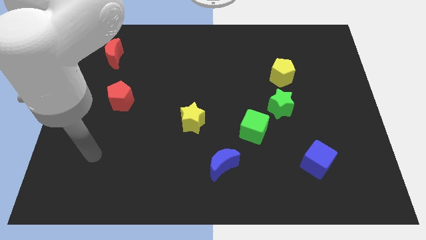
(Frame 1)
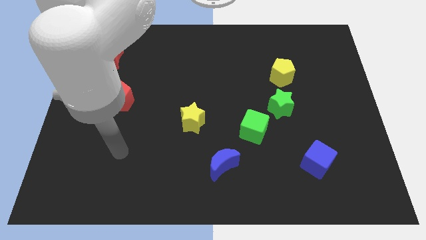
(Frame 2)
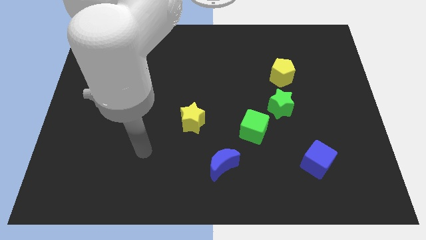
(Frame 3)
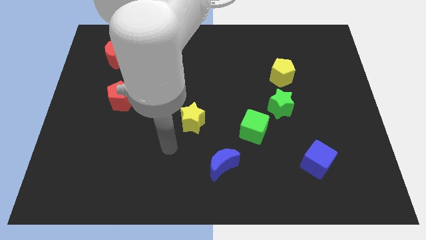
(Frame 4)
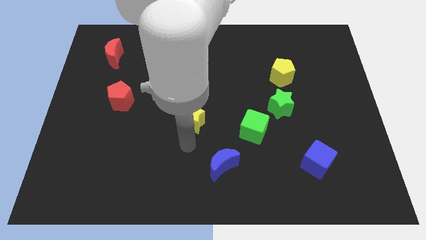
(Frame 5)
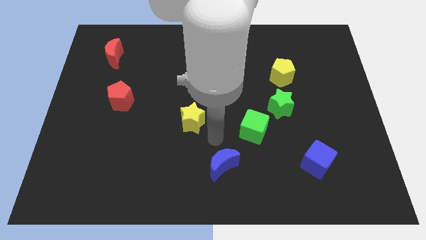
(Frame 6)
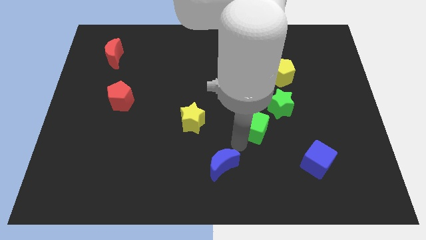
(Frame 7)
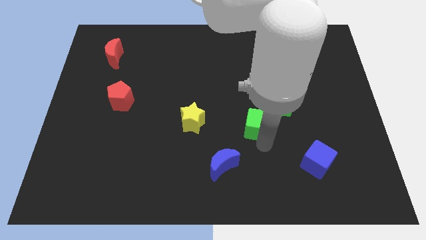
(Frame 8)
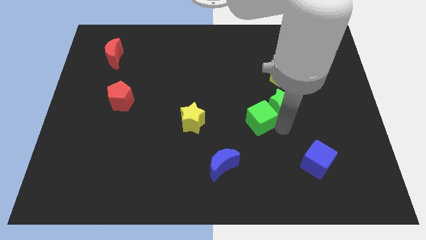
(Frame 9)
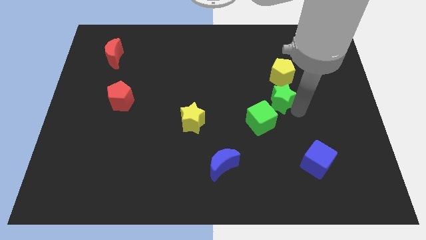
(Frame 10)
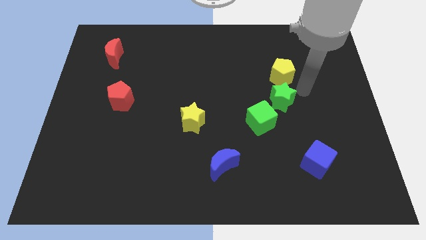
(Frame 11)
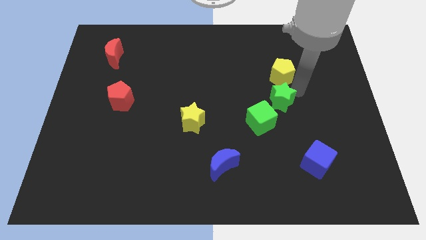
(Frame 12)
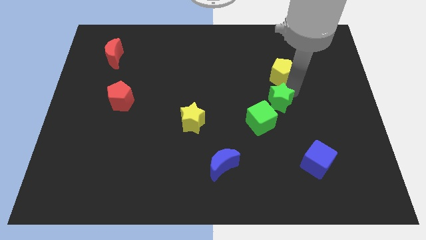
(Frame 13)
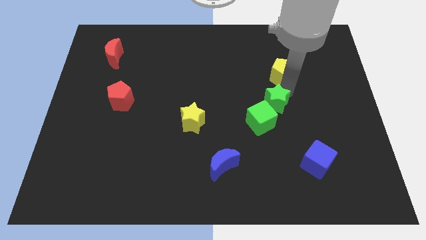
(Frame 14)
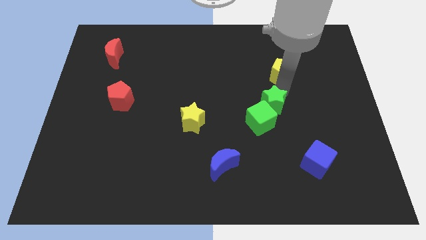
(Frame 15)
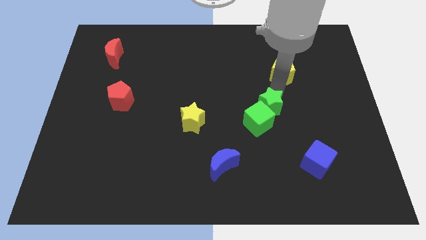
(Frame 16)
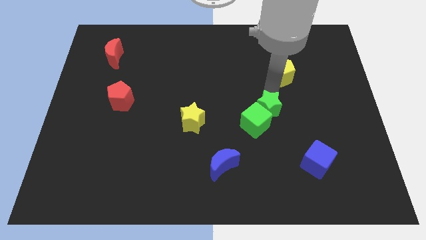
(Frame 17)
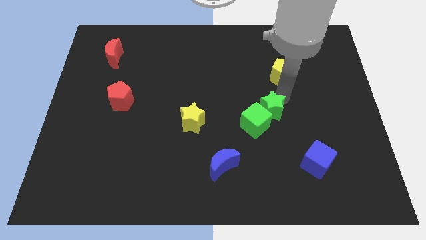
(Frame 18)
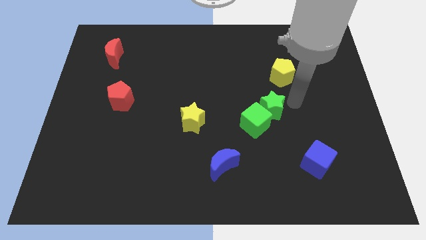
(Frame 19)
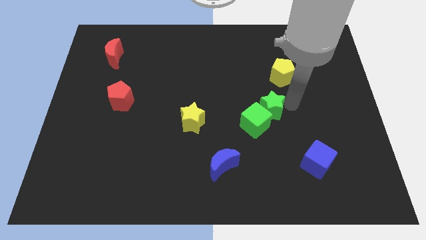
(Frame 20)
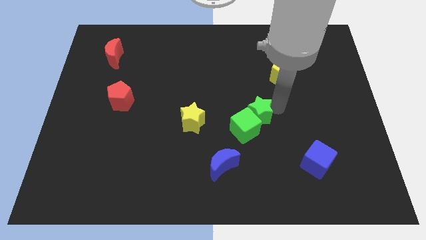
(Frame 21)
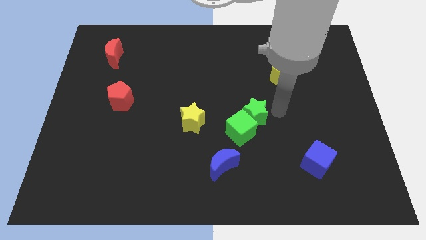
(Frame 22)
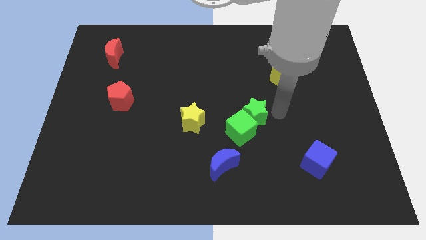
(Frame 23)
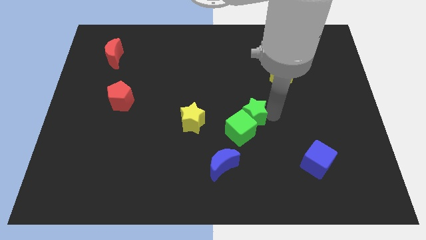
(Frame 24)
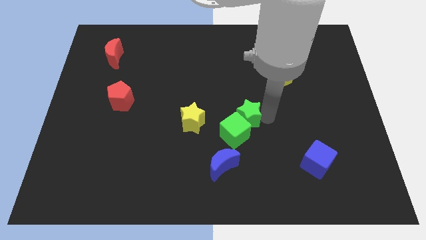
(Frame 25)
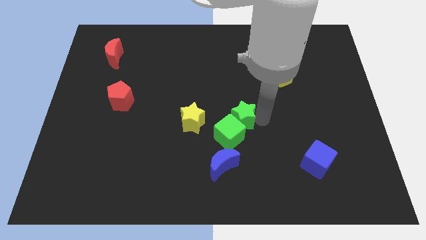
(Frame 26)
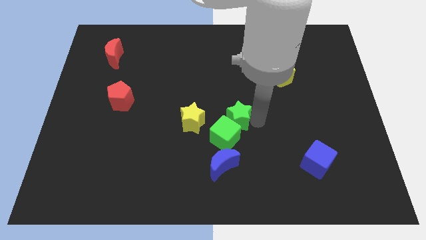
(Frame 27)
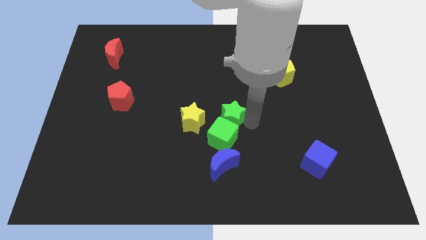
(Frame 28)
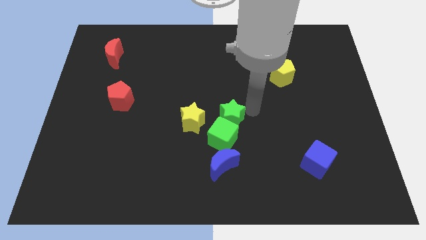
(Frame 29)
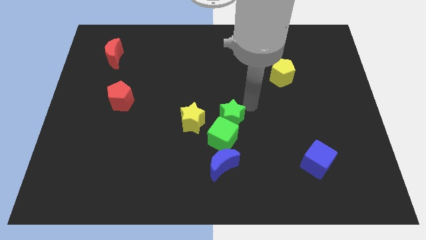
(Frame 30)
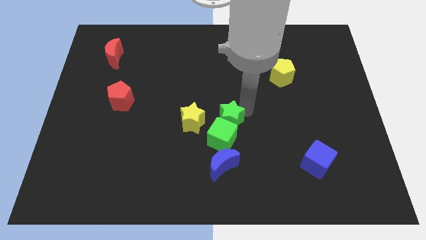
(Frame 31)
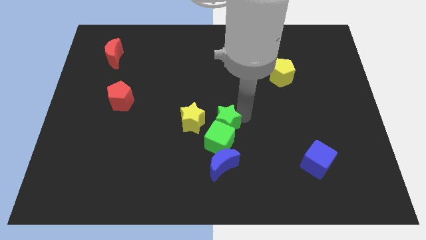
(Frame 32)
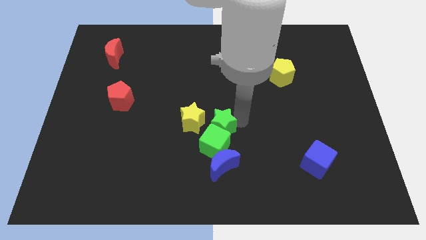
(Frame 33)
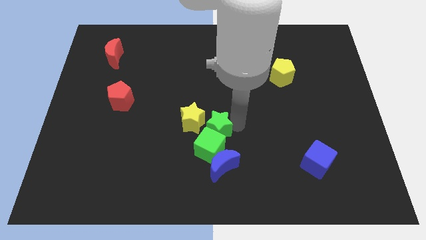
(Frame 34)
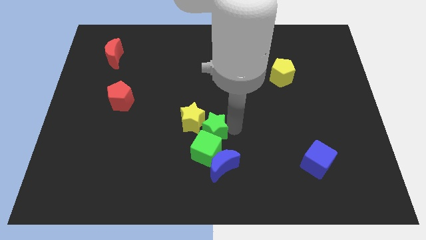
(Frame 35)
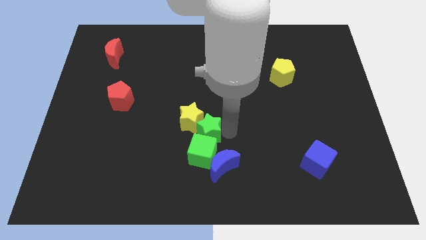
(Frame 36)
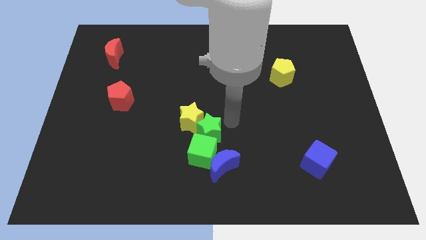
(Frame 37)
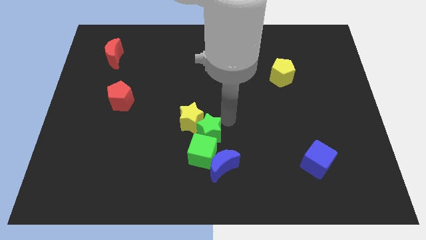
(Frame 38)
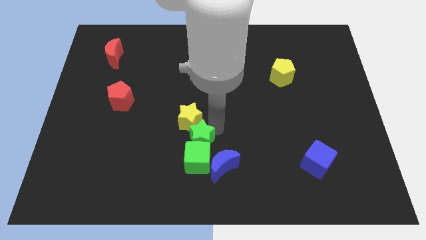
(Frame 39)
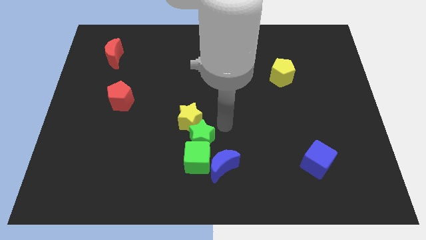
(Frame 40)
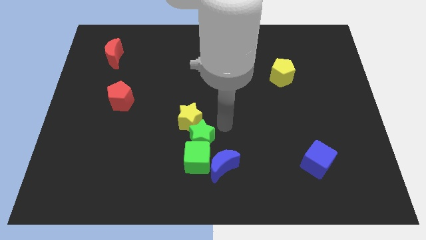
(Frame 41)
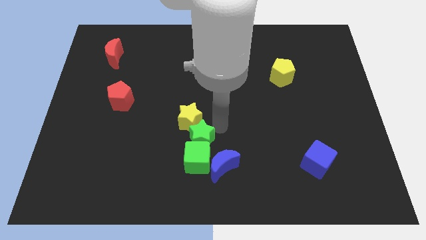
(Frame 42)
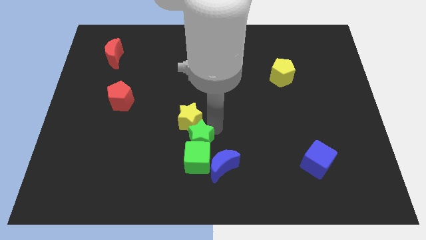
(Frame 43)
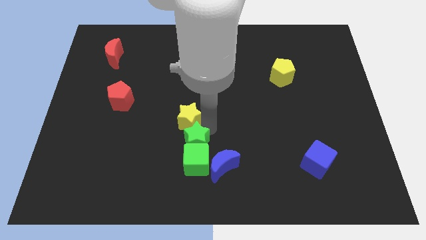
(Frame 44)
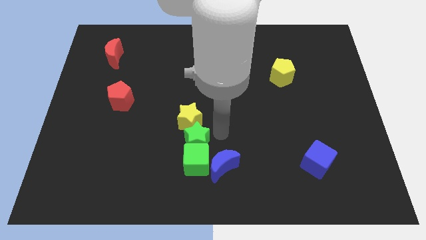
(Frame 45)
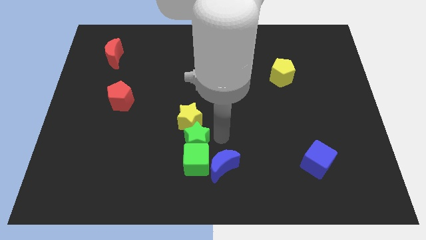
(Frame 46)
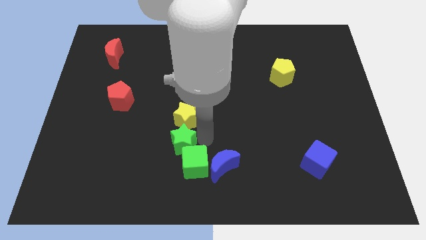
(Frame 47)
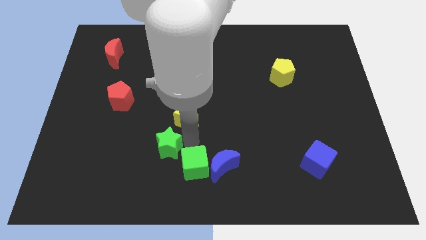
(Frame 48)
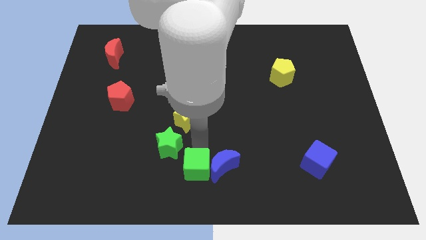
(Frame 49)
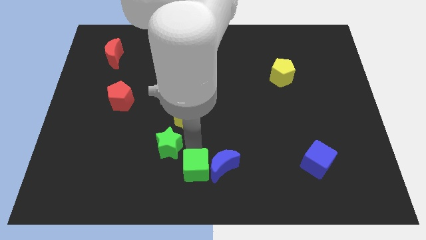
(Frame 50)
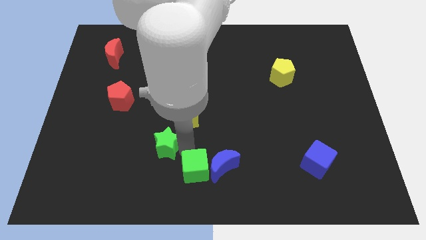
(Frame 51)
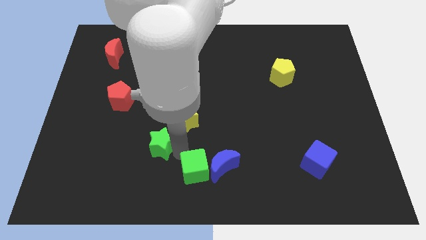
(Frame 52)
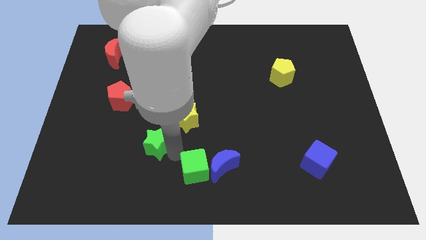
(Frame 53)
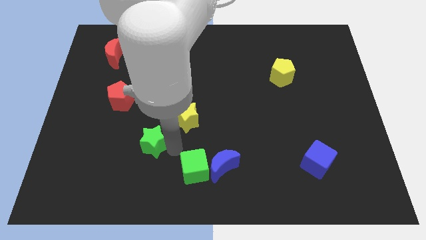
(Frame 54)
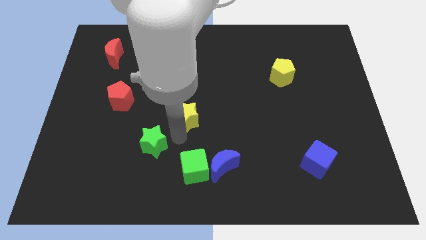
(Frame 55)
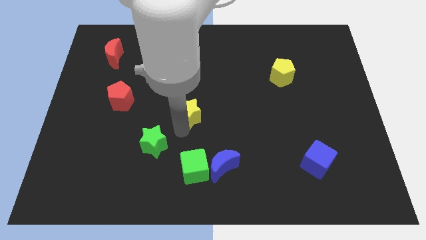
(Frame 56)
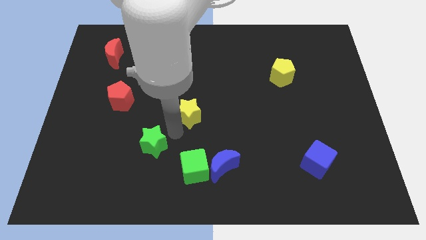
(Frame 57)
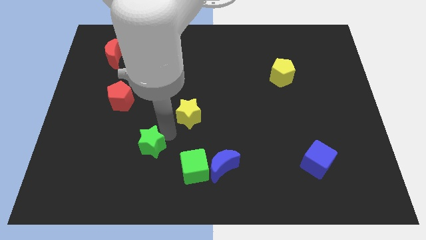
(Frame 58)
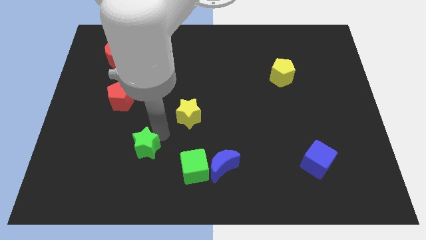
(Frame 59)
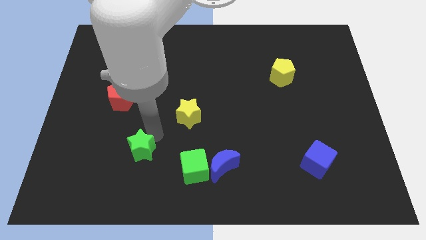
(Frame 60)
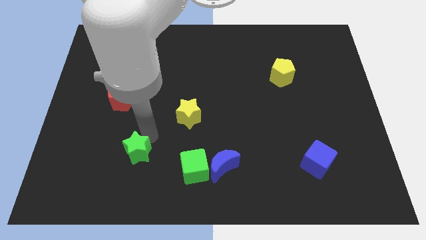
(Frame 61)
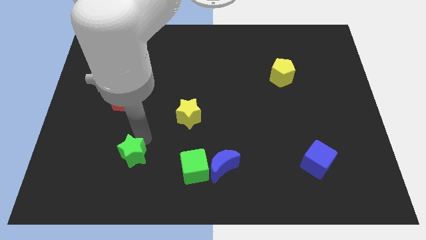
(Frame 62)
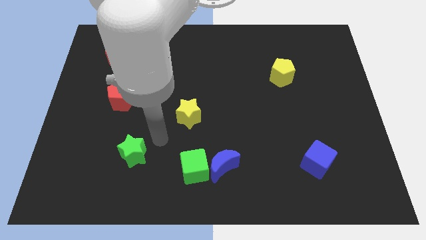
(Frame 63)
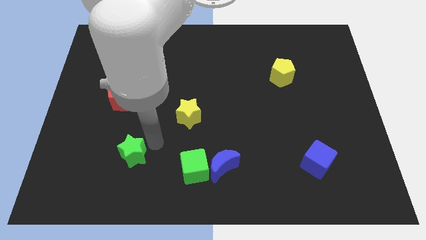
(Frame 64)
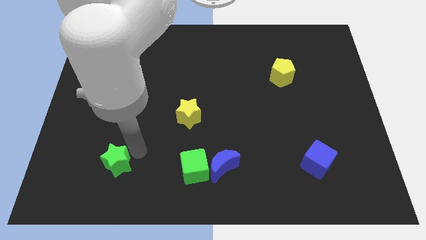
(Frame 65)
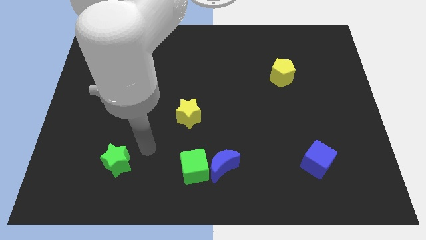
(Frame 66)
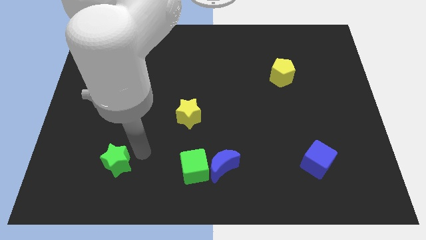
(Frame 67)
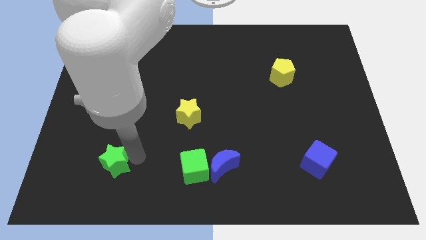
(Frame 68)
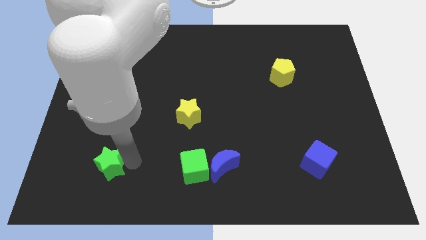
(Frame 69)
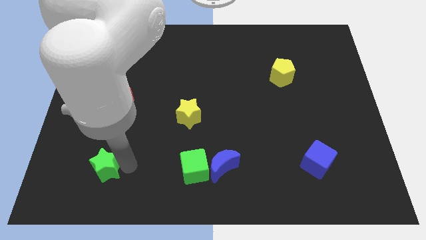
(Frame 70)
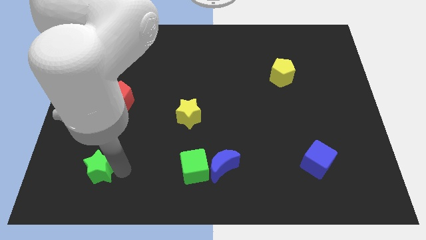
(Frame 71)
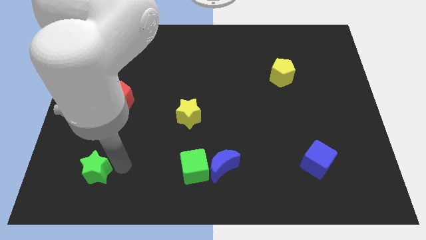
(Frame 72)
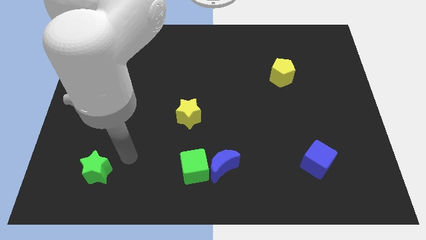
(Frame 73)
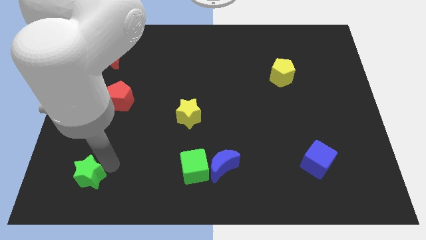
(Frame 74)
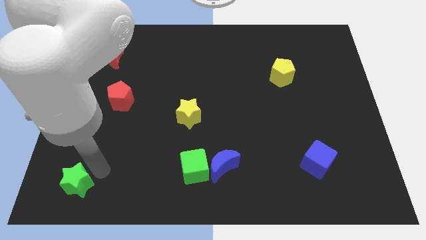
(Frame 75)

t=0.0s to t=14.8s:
push the green star to the bottom left
